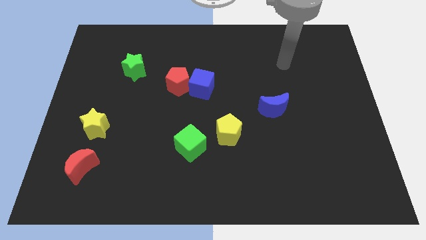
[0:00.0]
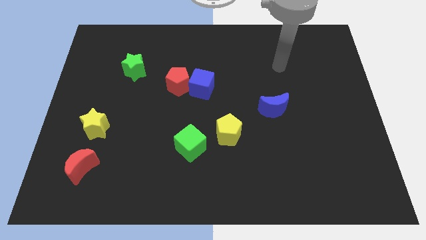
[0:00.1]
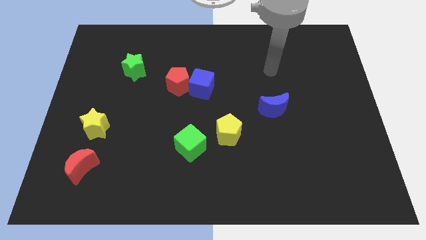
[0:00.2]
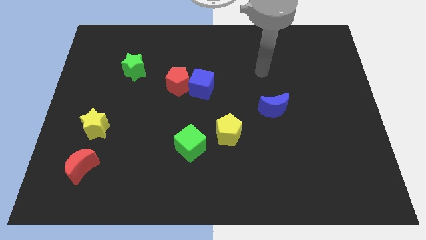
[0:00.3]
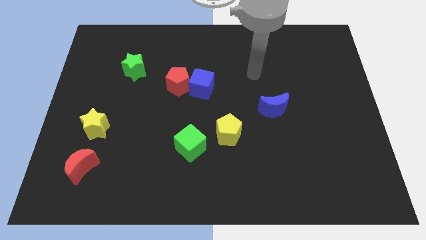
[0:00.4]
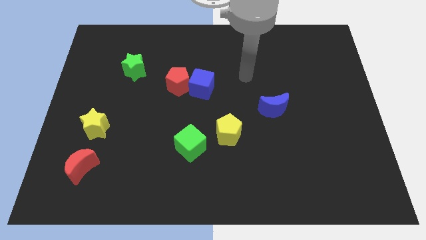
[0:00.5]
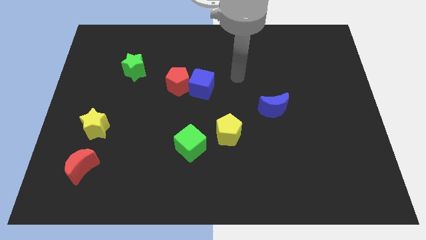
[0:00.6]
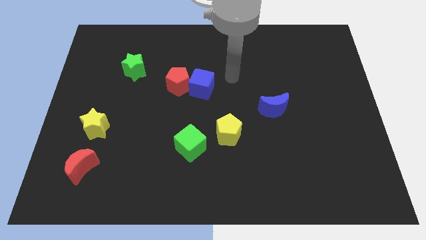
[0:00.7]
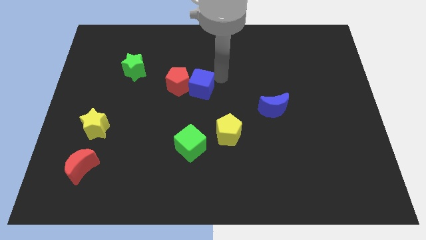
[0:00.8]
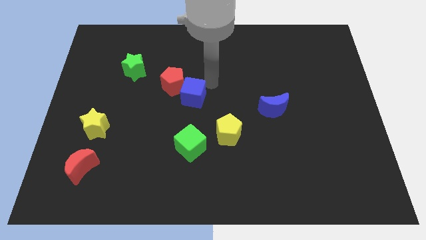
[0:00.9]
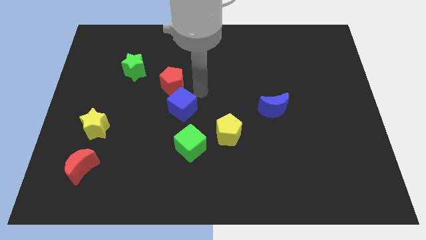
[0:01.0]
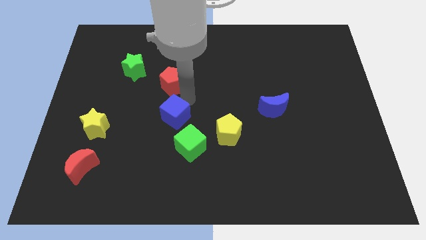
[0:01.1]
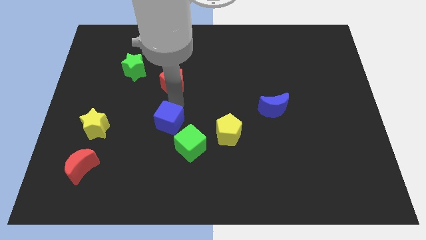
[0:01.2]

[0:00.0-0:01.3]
move the red pentagon away from the blue cube

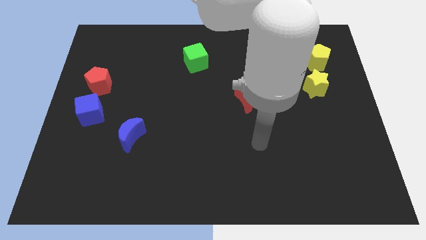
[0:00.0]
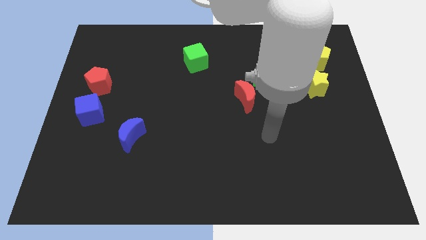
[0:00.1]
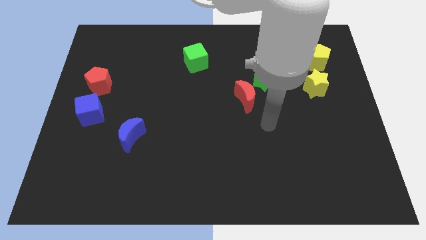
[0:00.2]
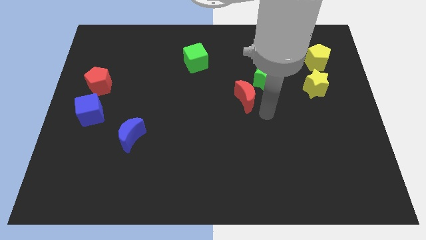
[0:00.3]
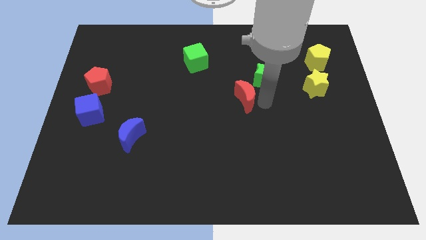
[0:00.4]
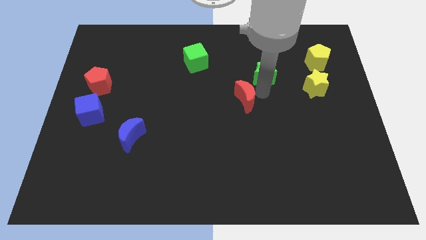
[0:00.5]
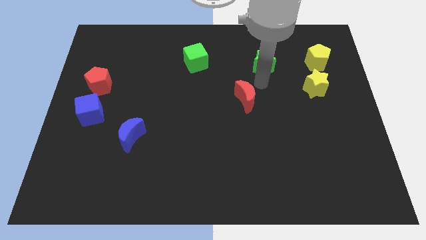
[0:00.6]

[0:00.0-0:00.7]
pull the red moon apart from the green star

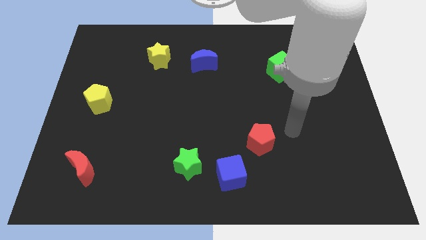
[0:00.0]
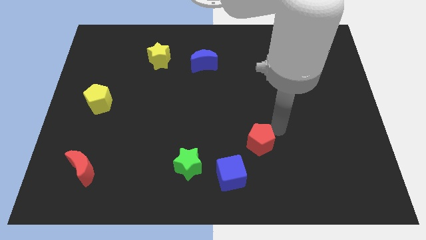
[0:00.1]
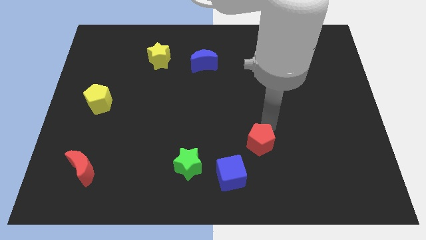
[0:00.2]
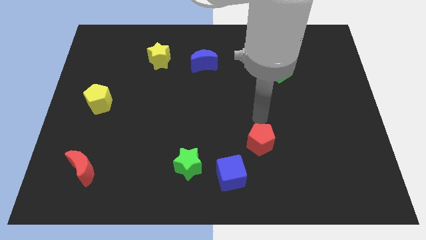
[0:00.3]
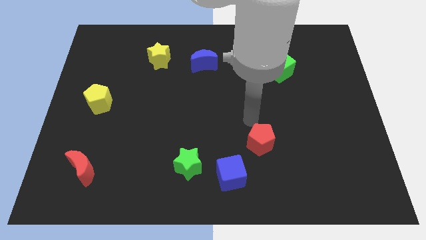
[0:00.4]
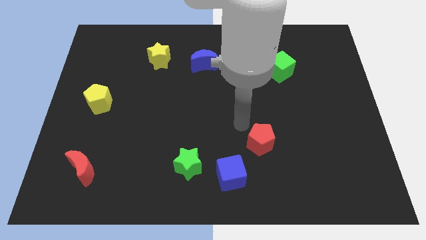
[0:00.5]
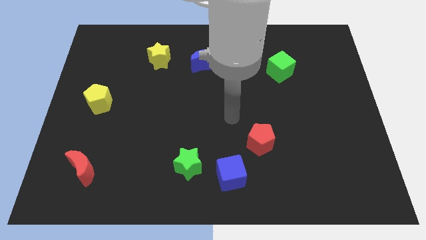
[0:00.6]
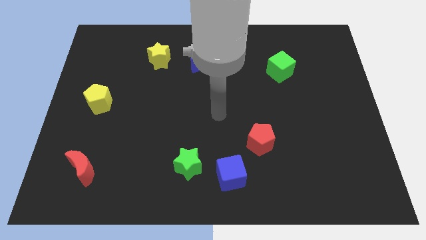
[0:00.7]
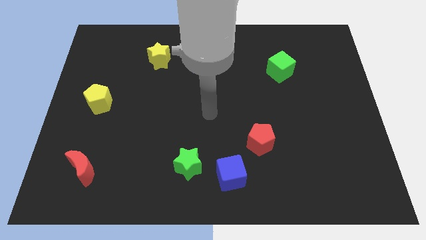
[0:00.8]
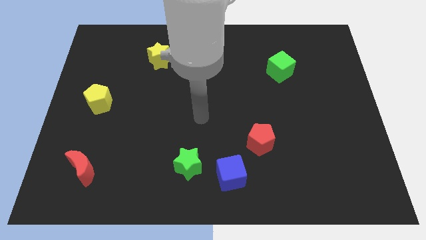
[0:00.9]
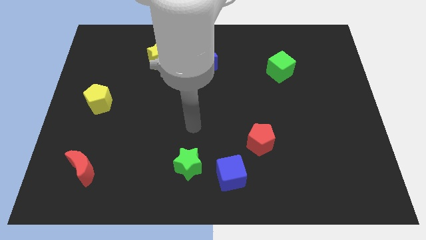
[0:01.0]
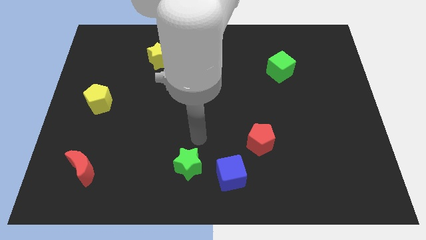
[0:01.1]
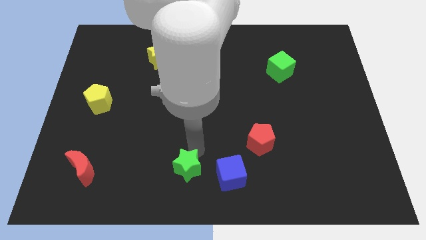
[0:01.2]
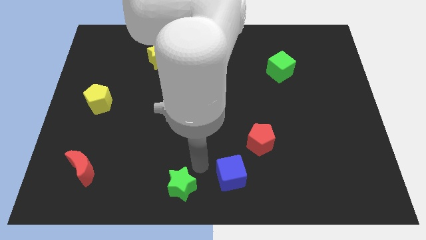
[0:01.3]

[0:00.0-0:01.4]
separate the blue cube from the green star

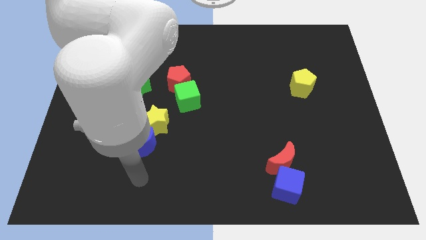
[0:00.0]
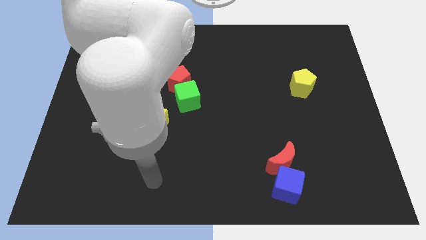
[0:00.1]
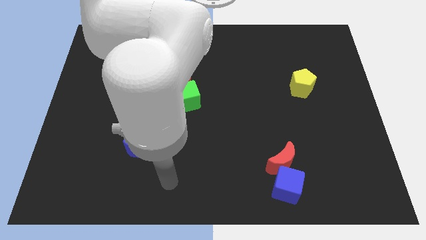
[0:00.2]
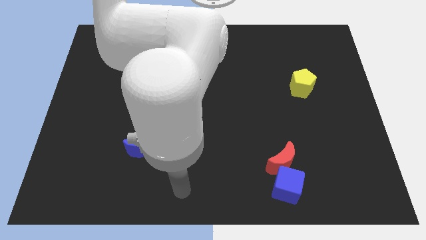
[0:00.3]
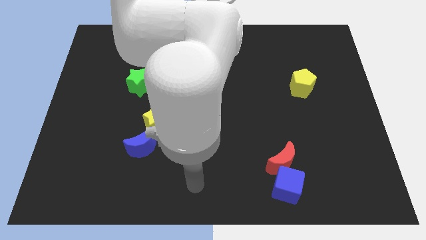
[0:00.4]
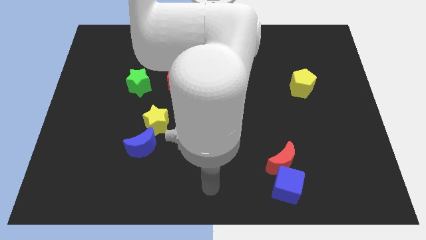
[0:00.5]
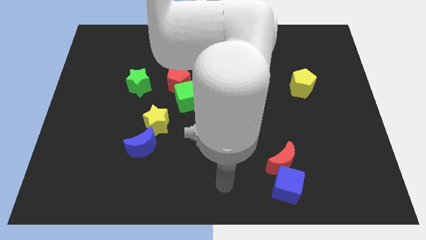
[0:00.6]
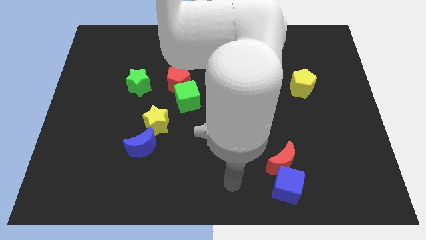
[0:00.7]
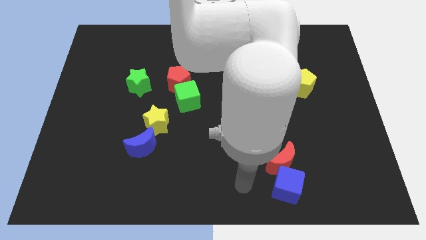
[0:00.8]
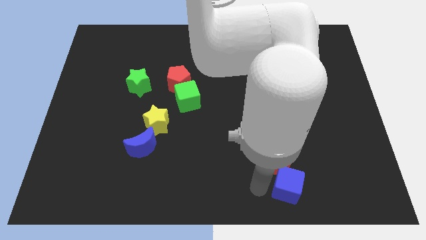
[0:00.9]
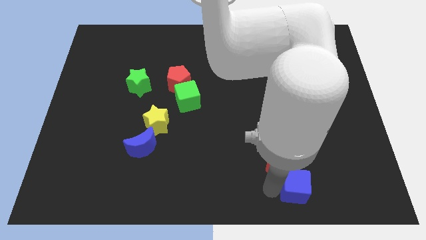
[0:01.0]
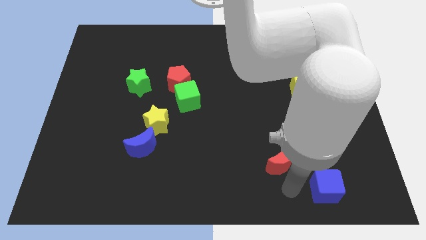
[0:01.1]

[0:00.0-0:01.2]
separate the red moon from the blue cube

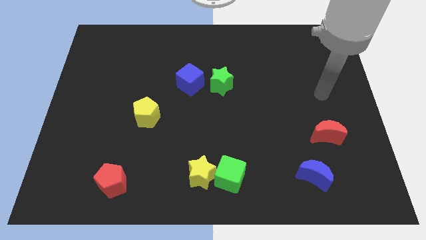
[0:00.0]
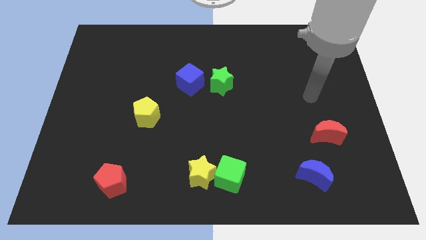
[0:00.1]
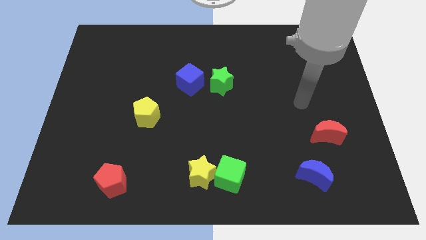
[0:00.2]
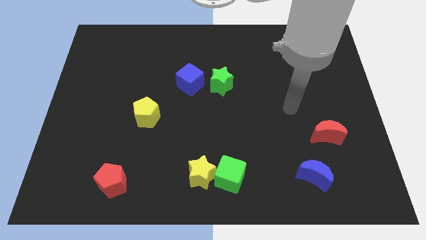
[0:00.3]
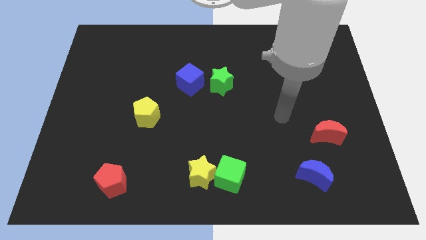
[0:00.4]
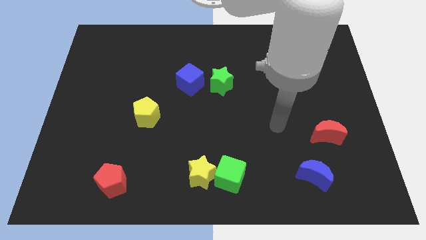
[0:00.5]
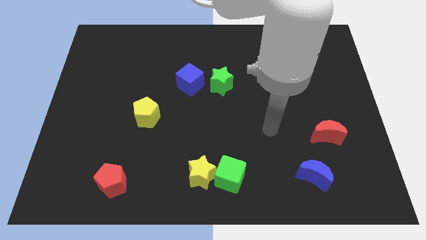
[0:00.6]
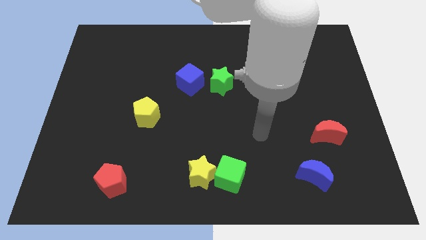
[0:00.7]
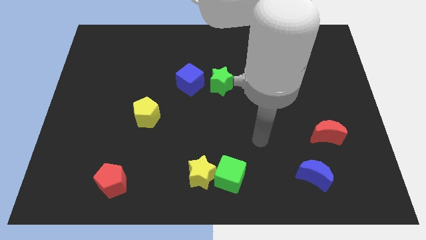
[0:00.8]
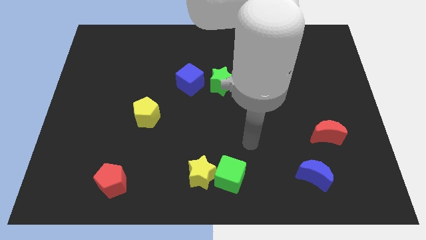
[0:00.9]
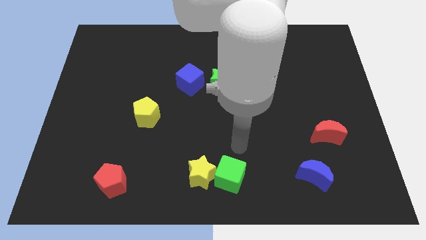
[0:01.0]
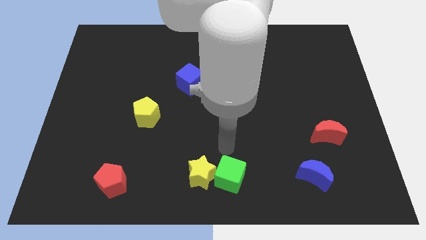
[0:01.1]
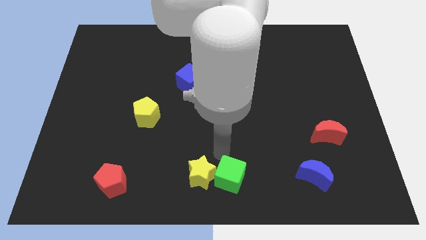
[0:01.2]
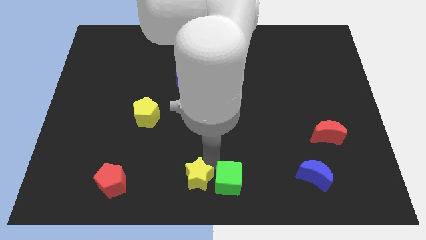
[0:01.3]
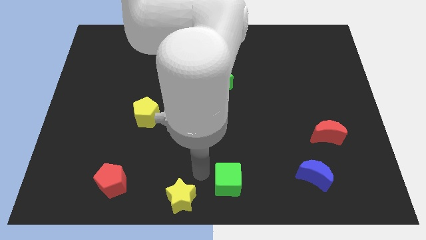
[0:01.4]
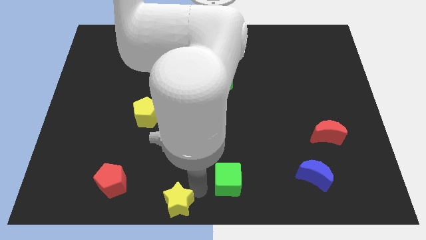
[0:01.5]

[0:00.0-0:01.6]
separate the green cube from the yellow star

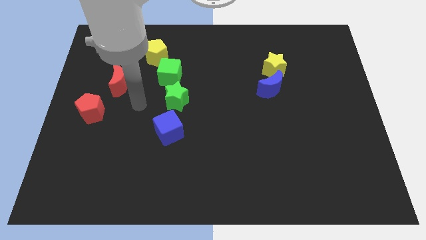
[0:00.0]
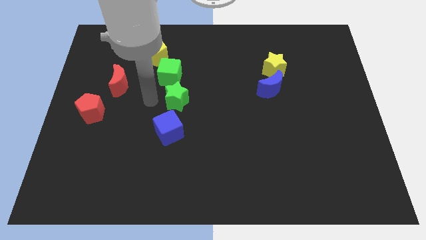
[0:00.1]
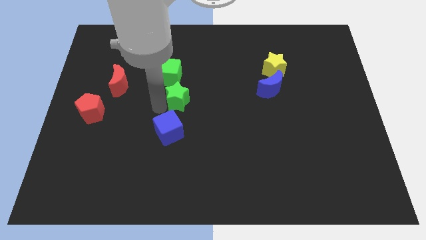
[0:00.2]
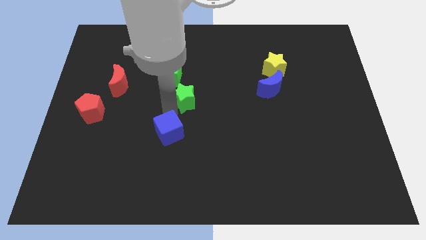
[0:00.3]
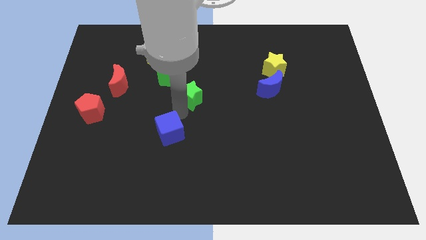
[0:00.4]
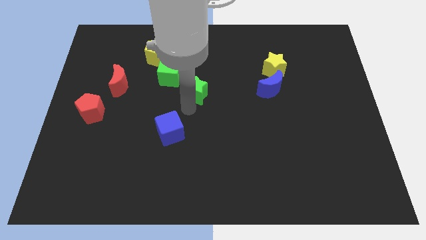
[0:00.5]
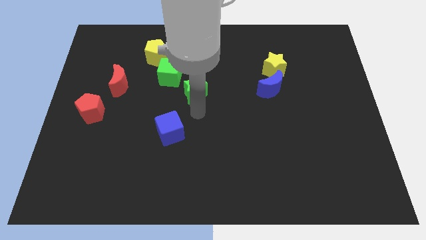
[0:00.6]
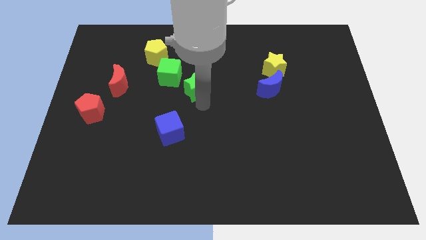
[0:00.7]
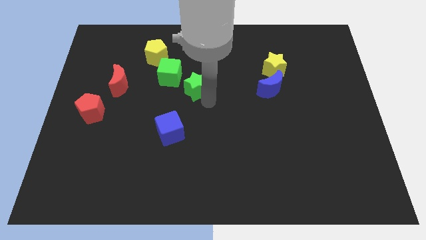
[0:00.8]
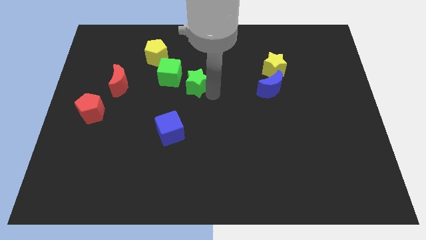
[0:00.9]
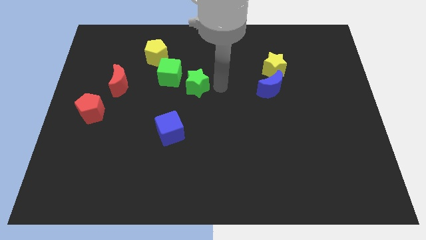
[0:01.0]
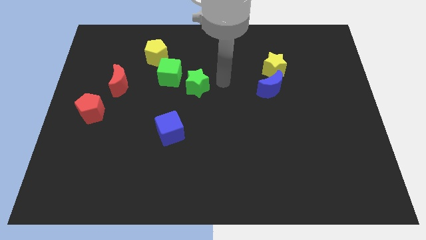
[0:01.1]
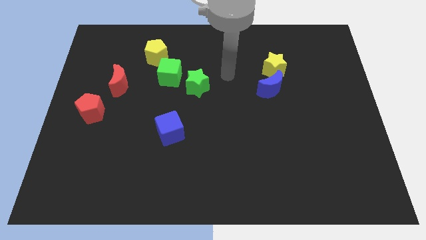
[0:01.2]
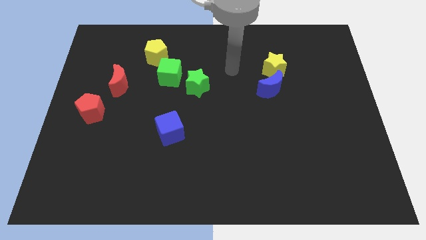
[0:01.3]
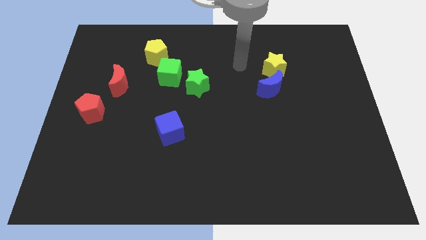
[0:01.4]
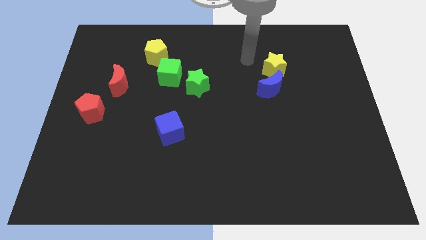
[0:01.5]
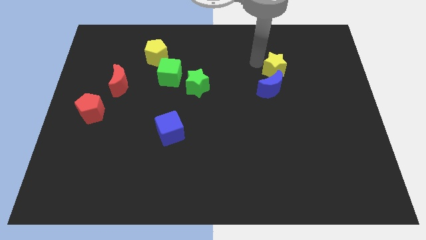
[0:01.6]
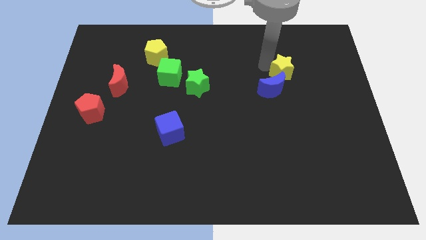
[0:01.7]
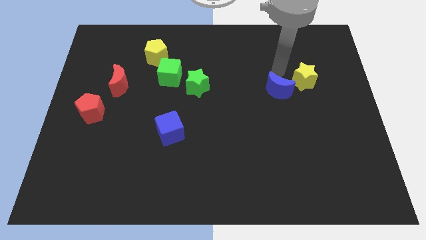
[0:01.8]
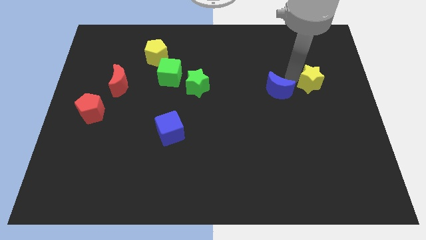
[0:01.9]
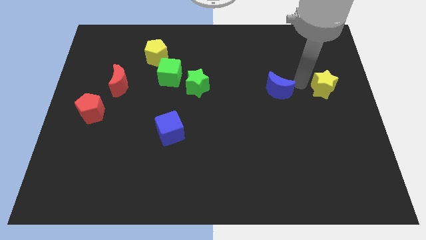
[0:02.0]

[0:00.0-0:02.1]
pull the blue moon apart from the yellow star

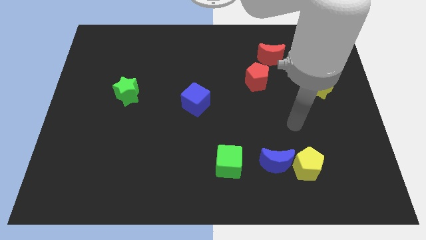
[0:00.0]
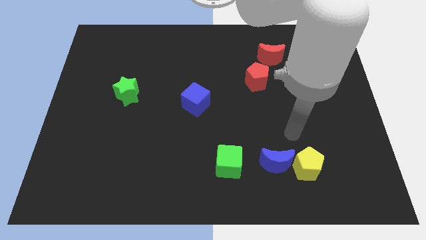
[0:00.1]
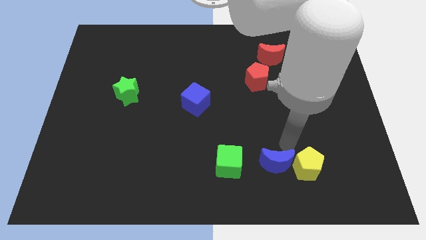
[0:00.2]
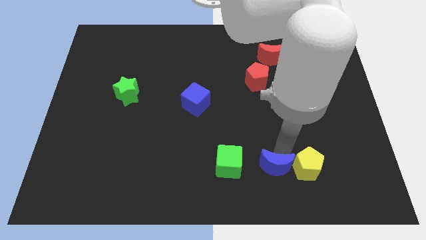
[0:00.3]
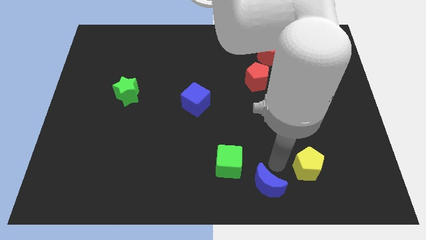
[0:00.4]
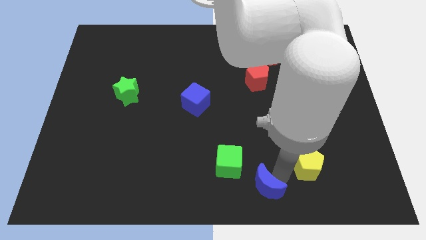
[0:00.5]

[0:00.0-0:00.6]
move the yellow pentagon away from the blue moon

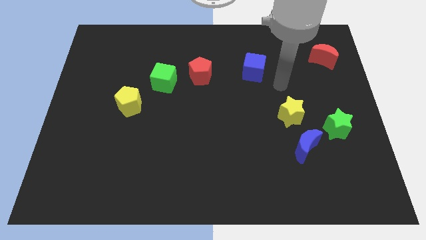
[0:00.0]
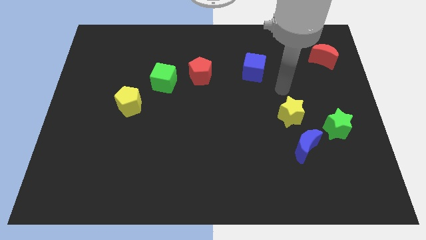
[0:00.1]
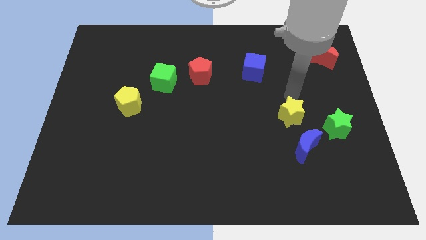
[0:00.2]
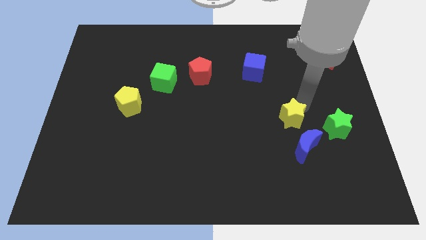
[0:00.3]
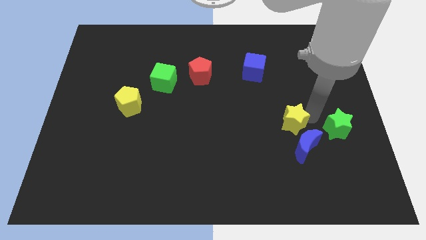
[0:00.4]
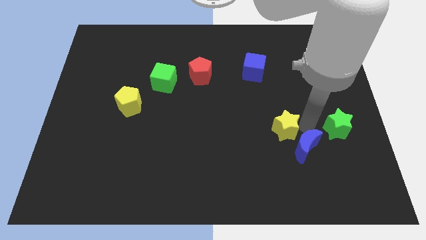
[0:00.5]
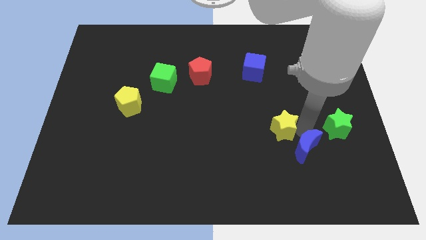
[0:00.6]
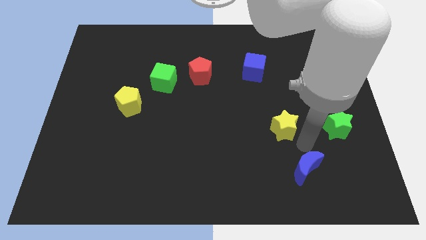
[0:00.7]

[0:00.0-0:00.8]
separate the yellow star from the blue moon
